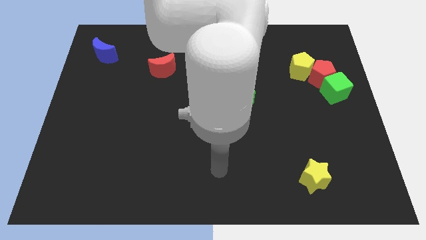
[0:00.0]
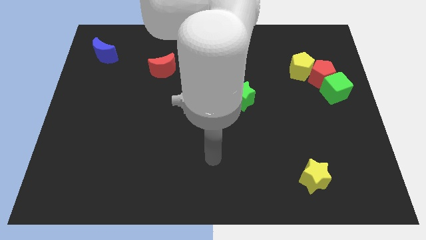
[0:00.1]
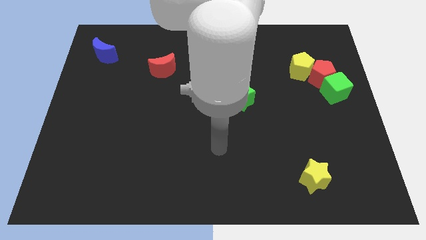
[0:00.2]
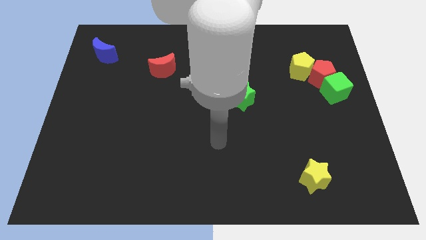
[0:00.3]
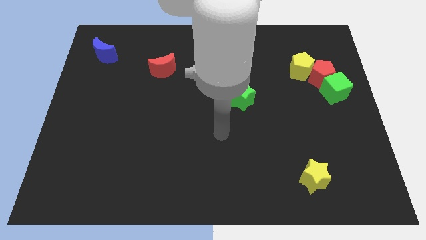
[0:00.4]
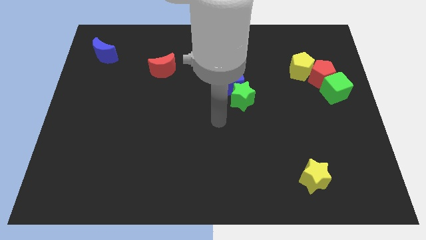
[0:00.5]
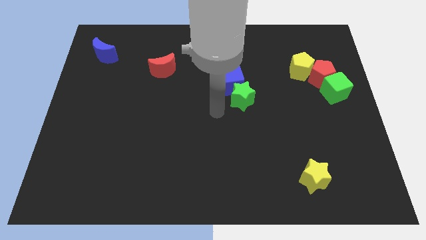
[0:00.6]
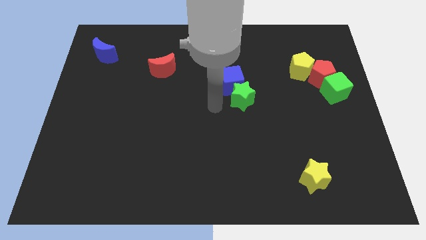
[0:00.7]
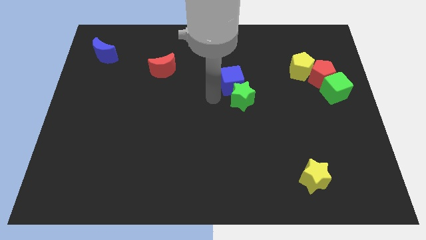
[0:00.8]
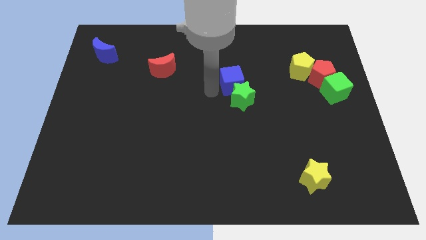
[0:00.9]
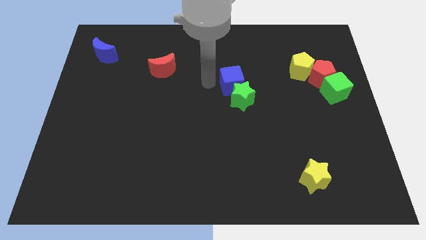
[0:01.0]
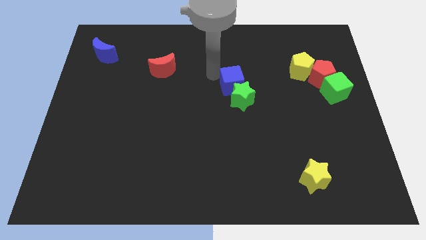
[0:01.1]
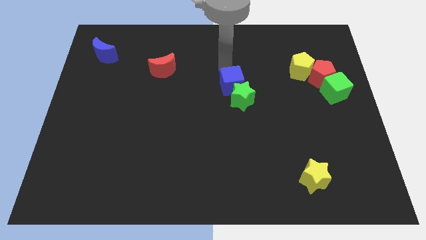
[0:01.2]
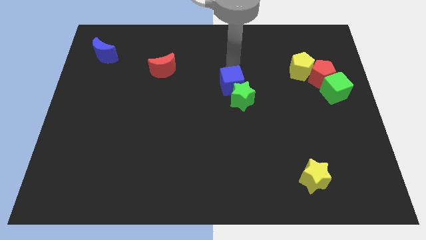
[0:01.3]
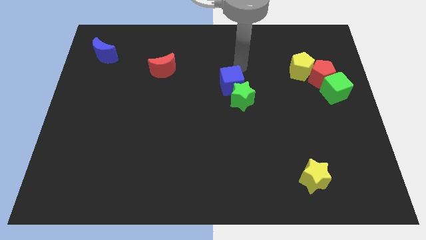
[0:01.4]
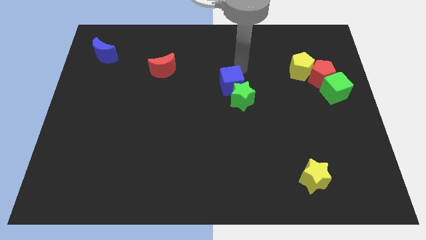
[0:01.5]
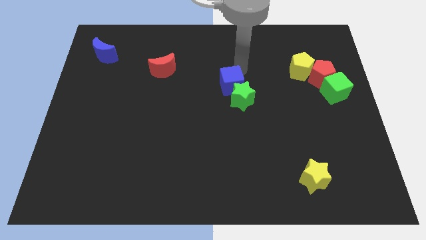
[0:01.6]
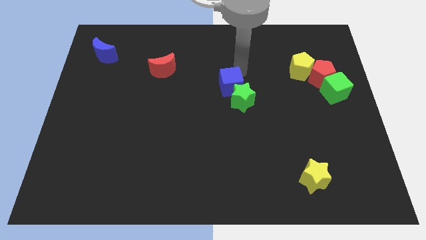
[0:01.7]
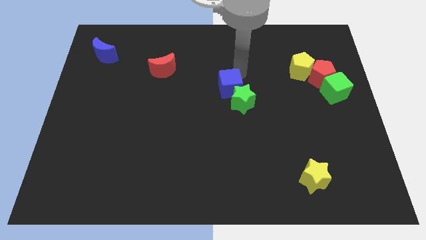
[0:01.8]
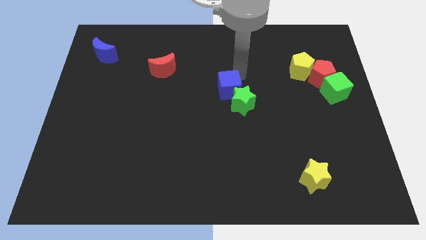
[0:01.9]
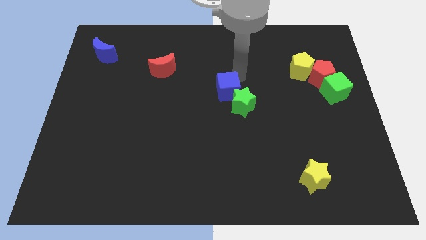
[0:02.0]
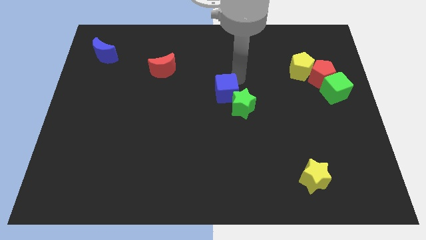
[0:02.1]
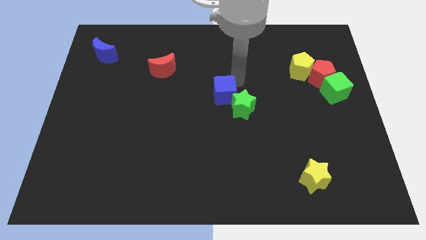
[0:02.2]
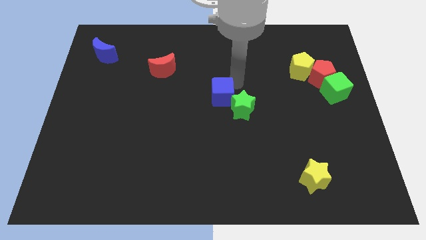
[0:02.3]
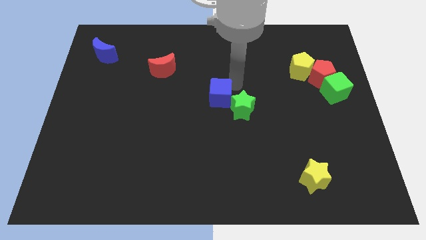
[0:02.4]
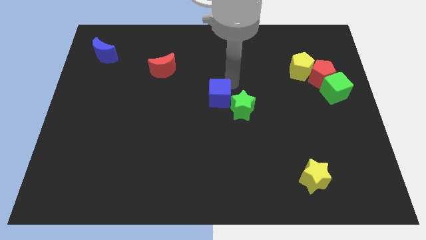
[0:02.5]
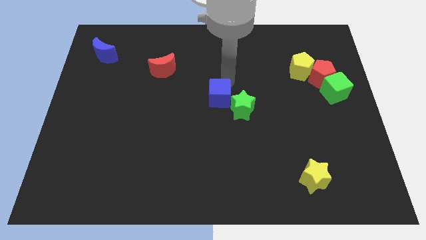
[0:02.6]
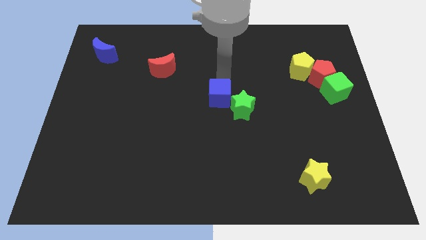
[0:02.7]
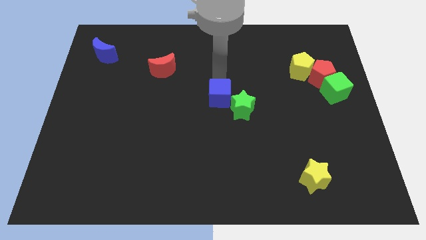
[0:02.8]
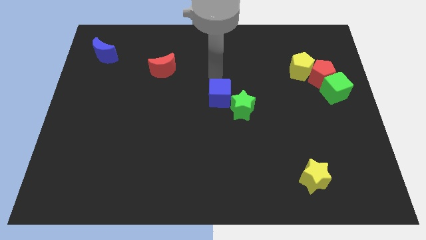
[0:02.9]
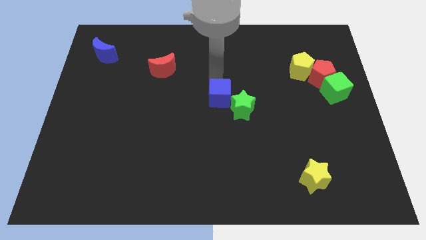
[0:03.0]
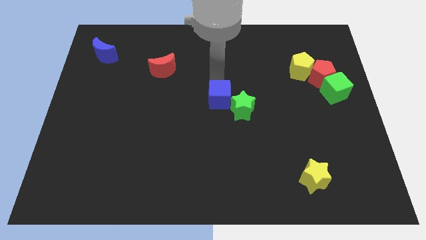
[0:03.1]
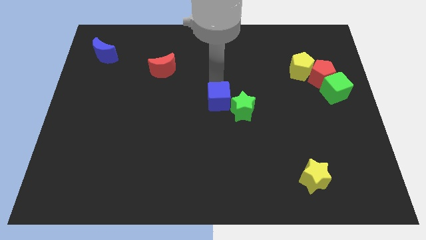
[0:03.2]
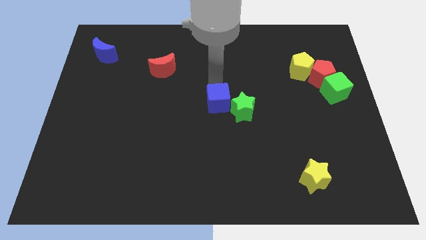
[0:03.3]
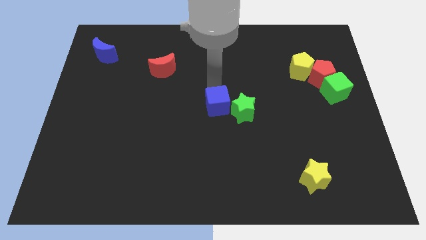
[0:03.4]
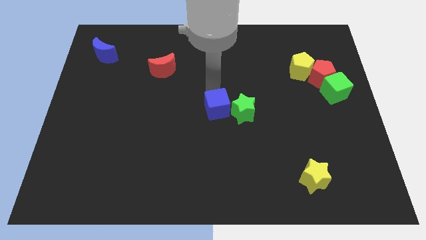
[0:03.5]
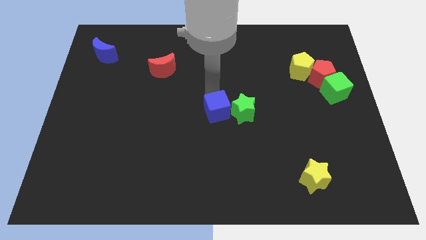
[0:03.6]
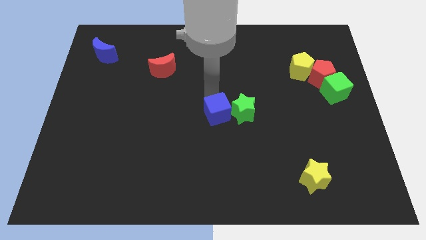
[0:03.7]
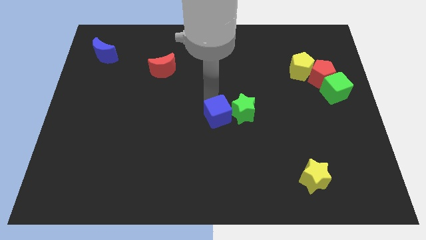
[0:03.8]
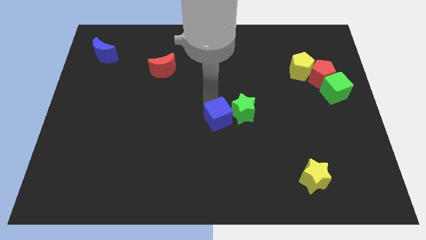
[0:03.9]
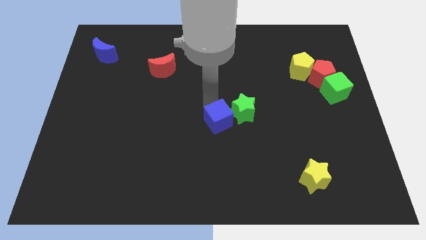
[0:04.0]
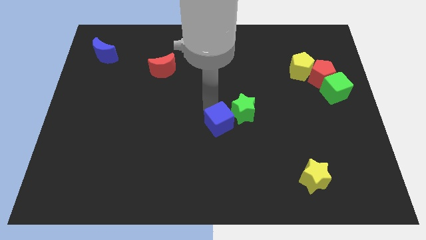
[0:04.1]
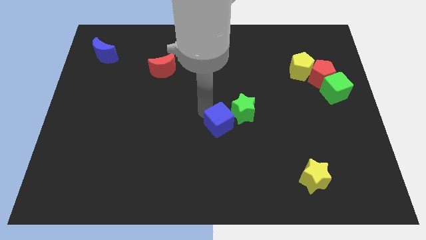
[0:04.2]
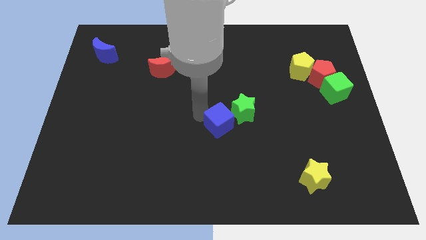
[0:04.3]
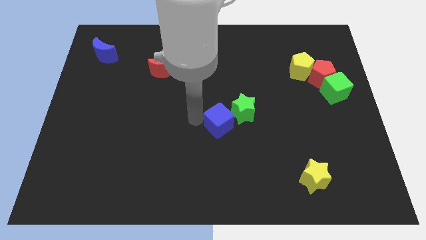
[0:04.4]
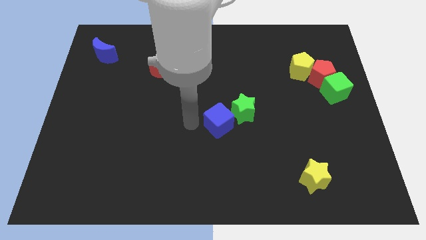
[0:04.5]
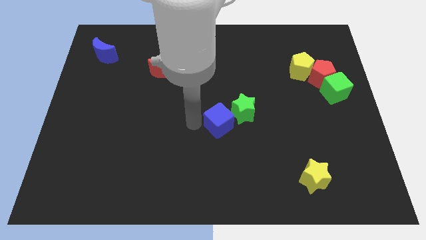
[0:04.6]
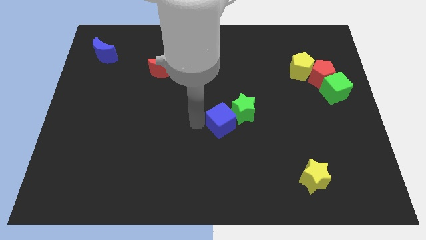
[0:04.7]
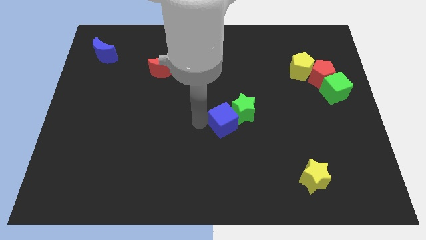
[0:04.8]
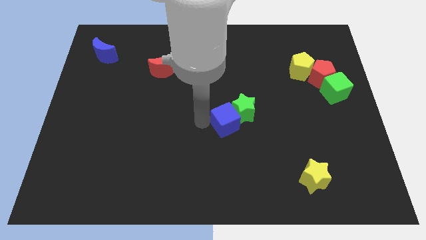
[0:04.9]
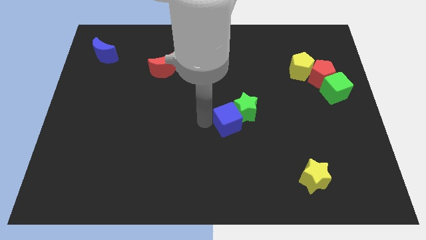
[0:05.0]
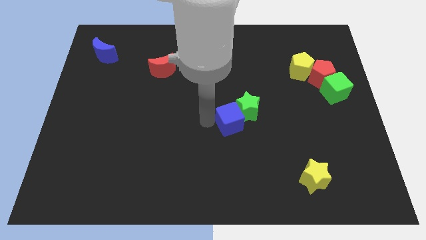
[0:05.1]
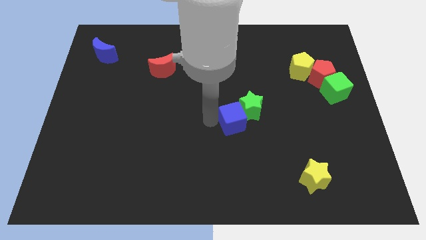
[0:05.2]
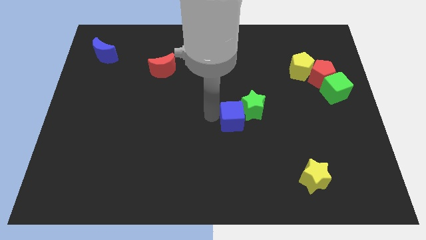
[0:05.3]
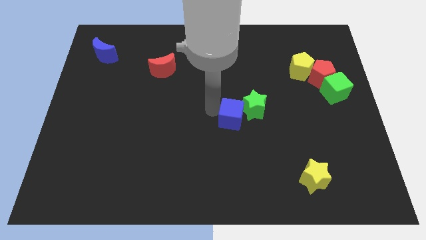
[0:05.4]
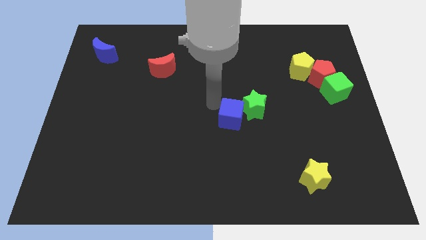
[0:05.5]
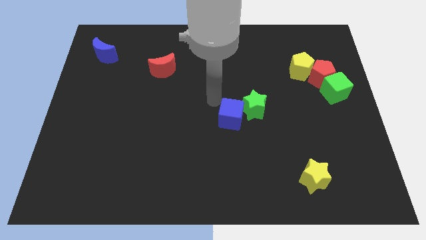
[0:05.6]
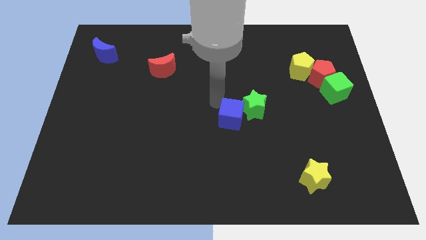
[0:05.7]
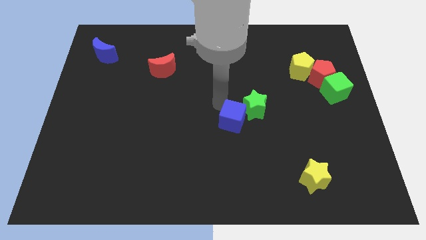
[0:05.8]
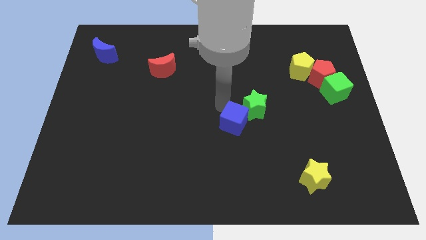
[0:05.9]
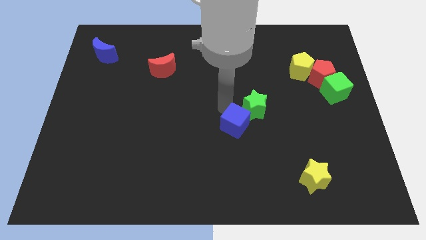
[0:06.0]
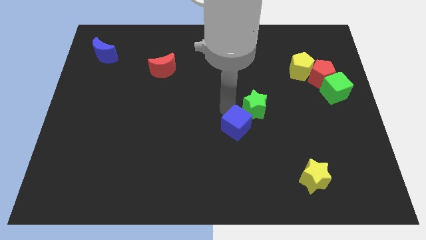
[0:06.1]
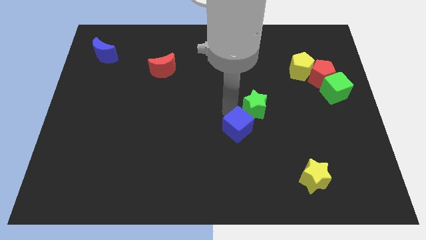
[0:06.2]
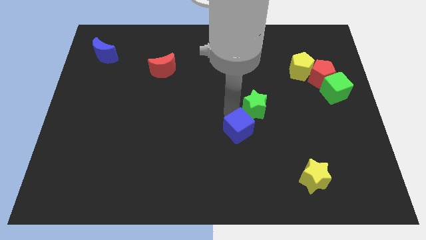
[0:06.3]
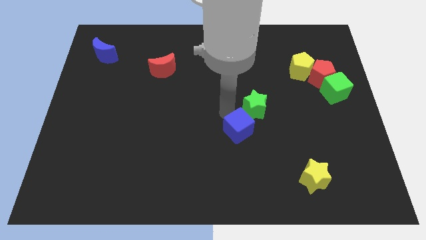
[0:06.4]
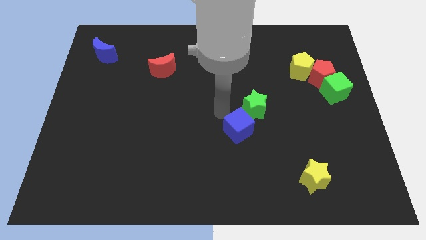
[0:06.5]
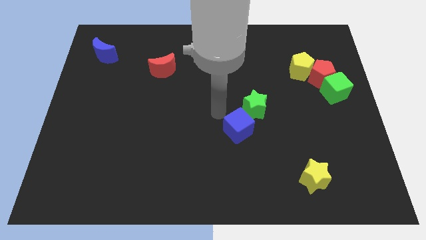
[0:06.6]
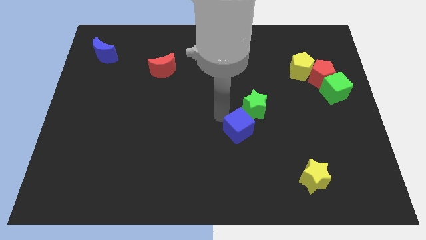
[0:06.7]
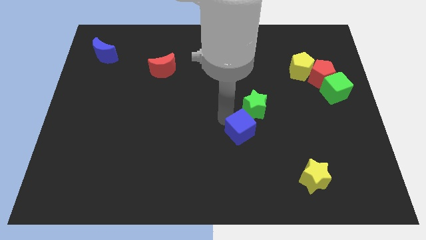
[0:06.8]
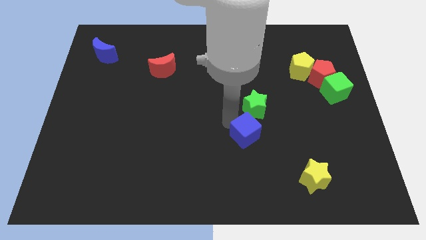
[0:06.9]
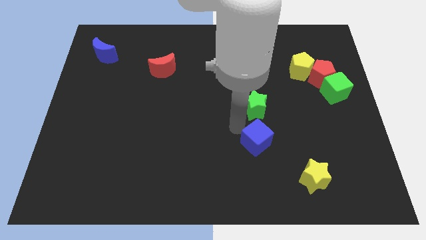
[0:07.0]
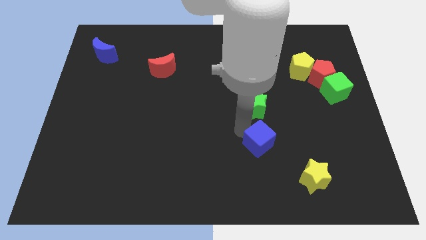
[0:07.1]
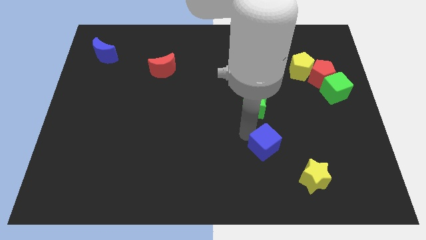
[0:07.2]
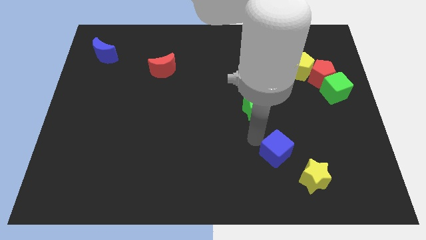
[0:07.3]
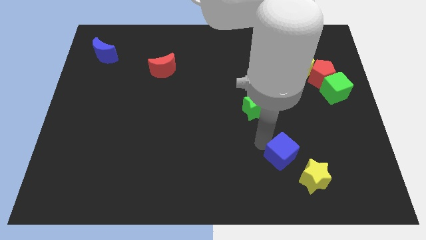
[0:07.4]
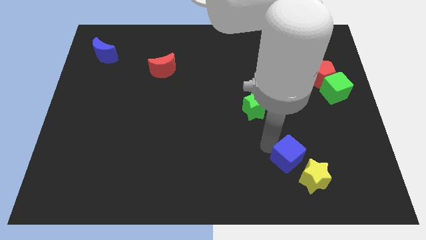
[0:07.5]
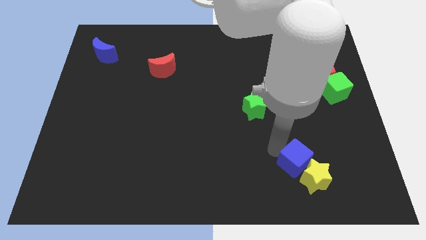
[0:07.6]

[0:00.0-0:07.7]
move the blue cube next to the yellow star

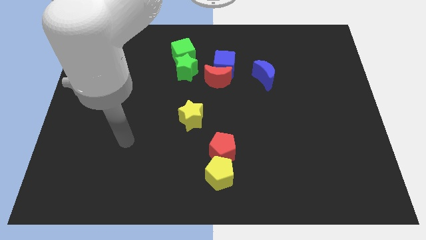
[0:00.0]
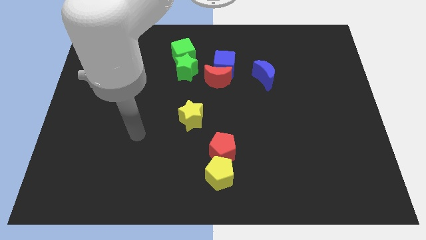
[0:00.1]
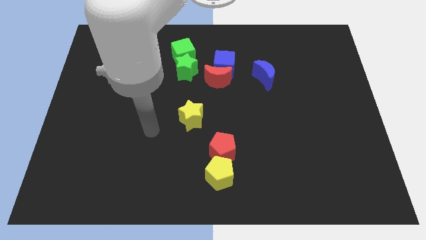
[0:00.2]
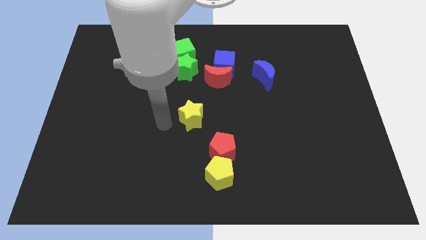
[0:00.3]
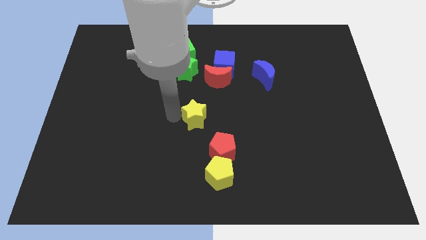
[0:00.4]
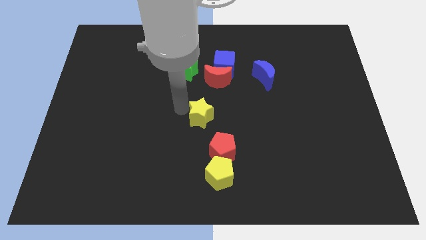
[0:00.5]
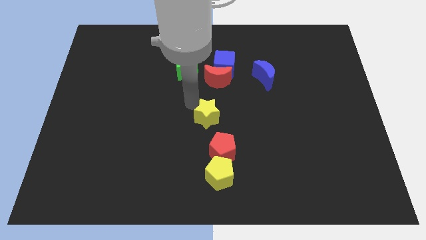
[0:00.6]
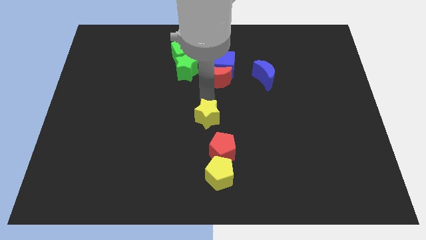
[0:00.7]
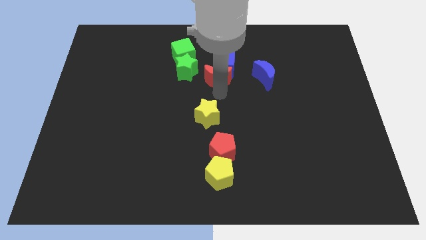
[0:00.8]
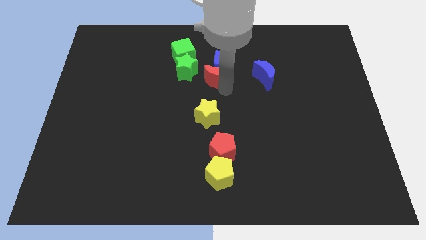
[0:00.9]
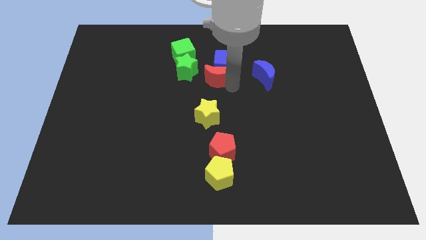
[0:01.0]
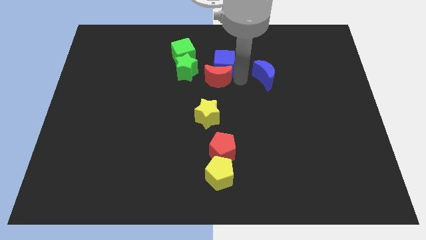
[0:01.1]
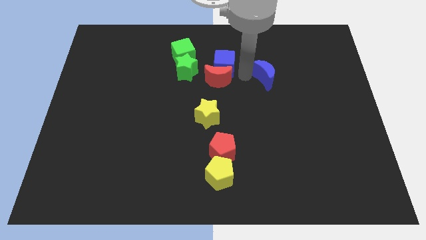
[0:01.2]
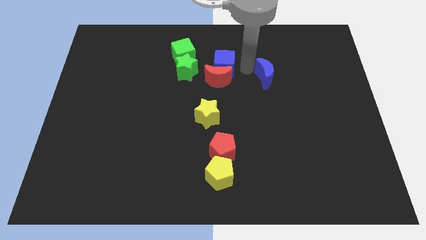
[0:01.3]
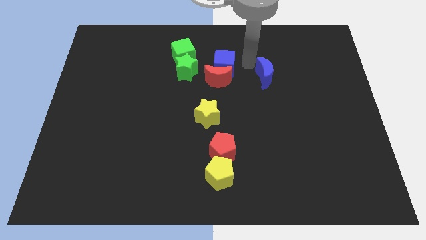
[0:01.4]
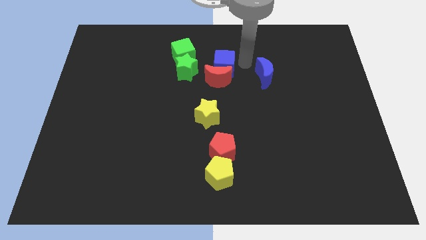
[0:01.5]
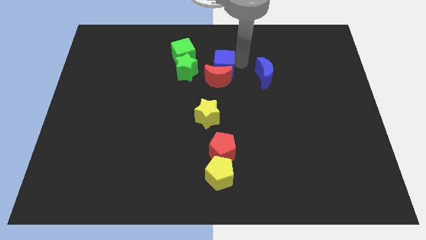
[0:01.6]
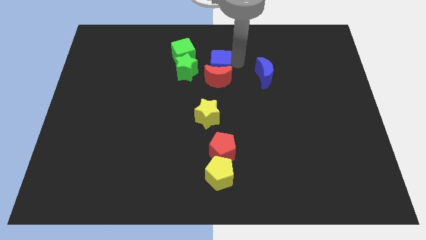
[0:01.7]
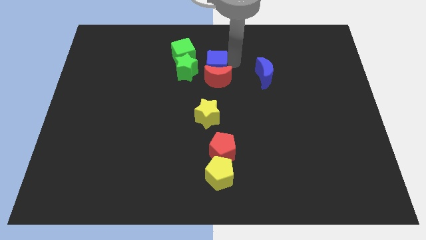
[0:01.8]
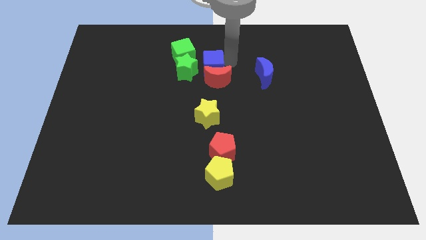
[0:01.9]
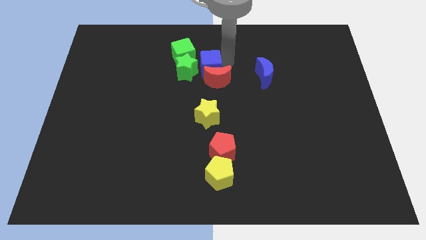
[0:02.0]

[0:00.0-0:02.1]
move the blue cube next to the green star
